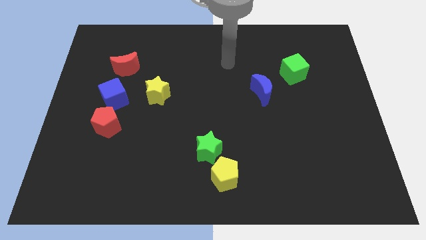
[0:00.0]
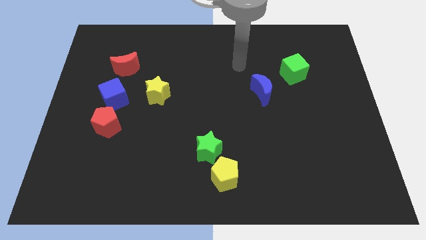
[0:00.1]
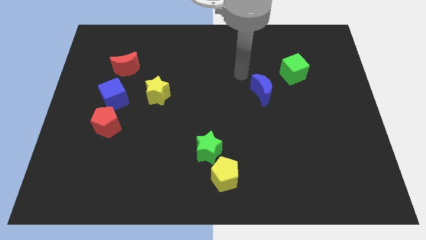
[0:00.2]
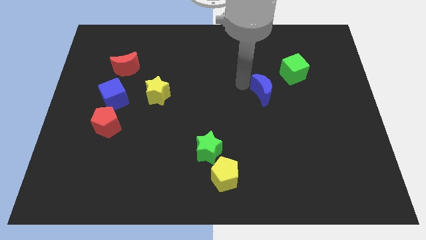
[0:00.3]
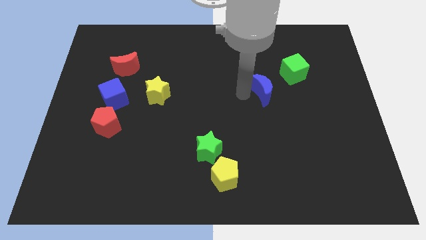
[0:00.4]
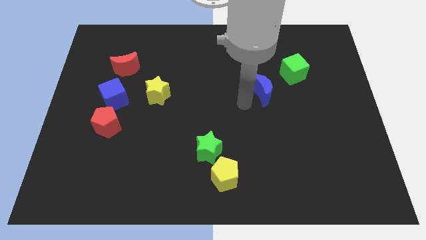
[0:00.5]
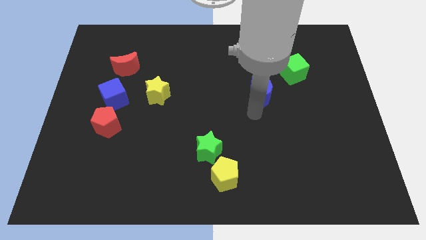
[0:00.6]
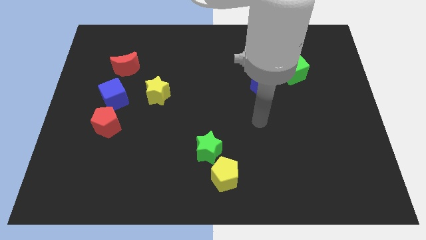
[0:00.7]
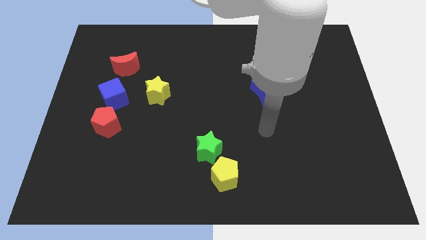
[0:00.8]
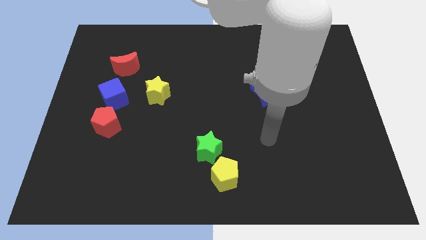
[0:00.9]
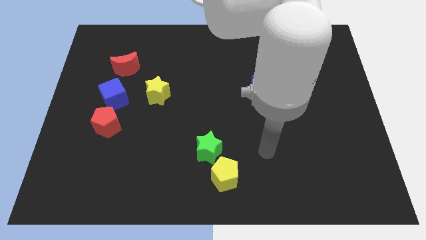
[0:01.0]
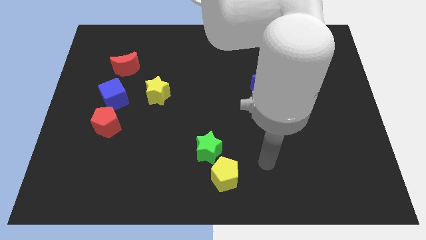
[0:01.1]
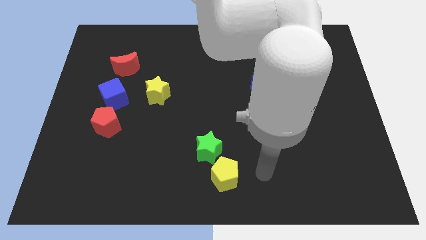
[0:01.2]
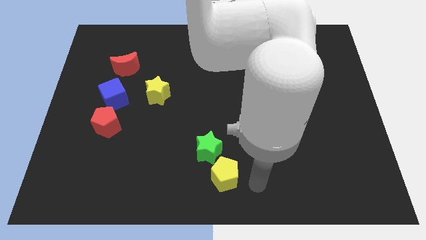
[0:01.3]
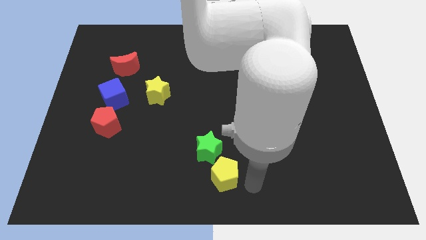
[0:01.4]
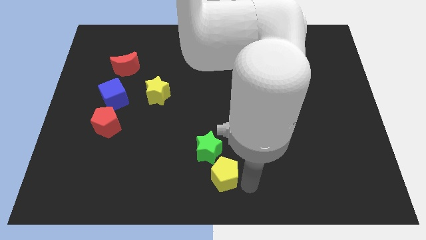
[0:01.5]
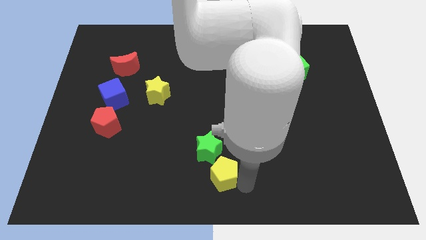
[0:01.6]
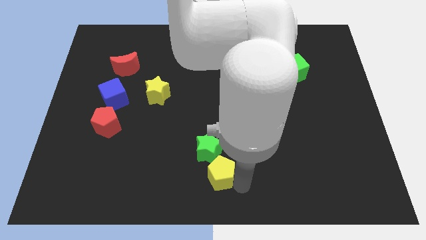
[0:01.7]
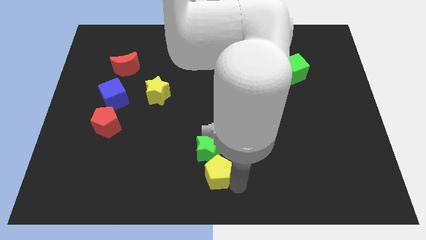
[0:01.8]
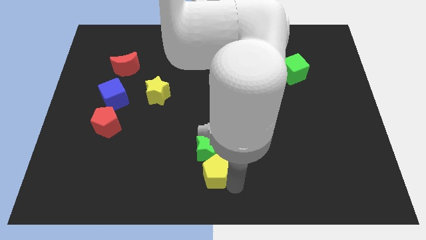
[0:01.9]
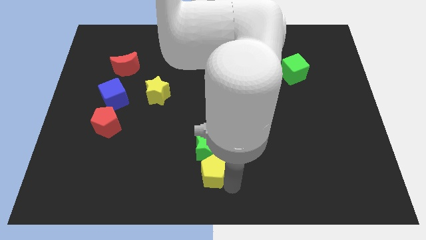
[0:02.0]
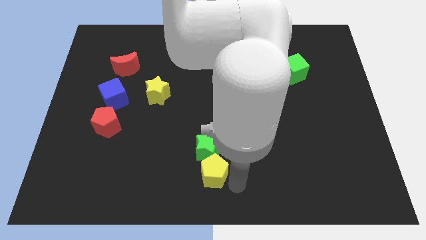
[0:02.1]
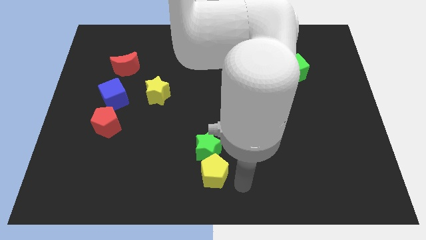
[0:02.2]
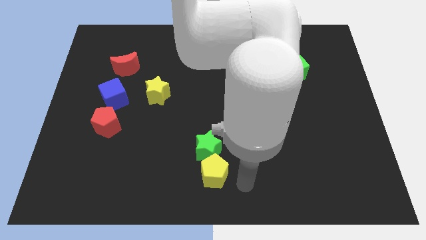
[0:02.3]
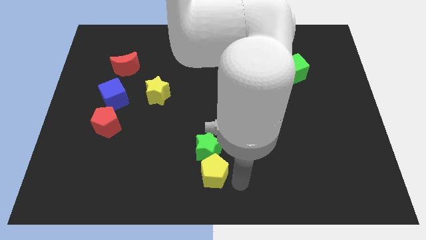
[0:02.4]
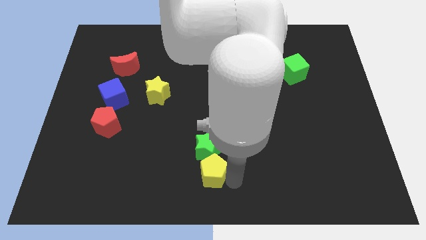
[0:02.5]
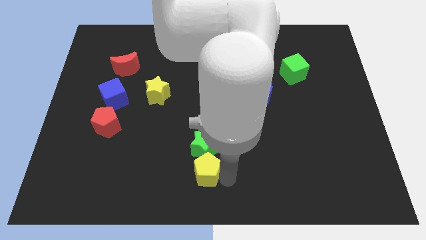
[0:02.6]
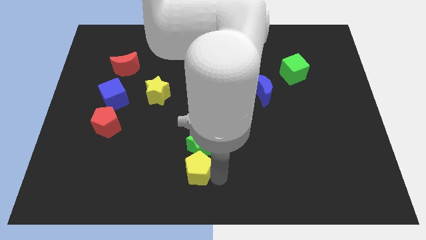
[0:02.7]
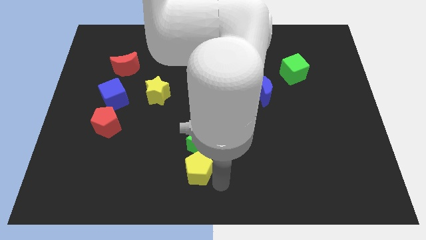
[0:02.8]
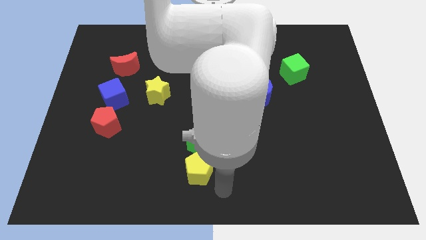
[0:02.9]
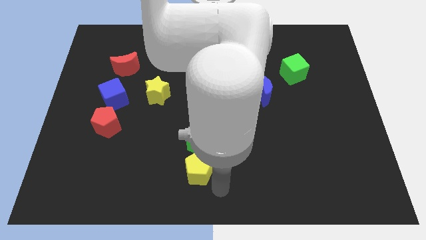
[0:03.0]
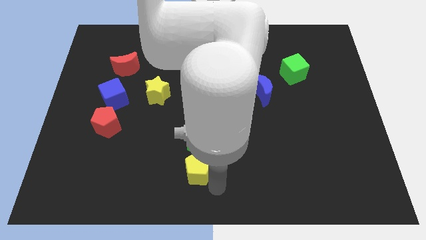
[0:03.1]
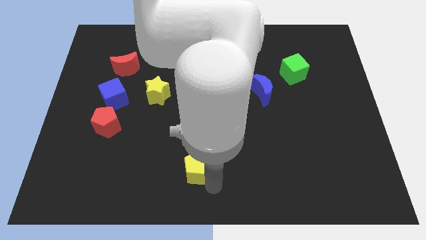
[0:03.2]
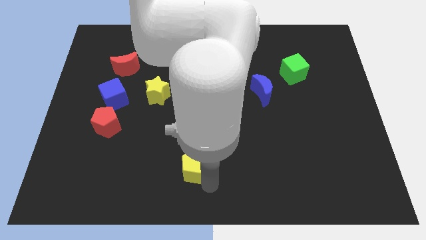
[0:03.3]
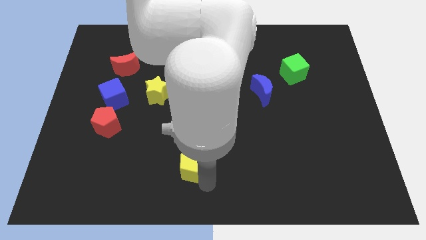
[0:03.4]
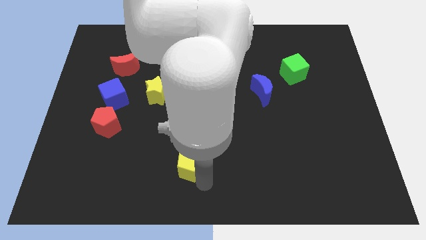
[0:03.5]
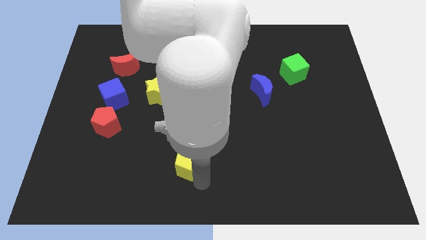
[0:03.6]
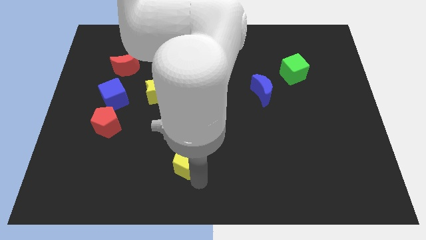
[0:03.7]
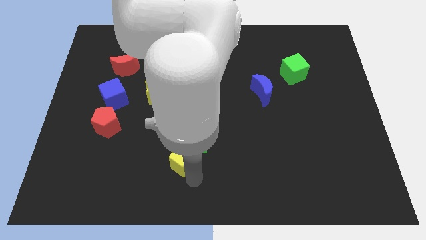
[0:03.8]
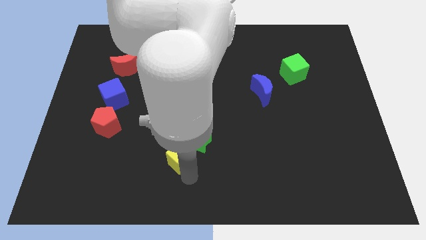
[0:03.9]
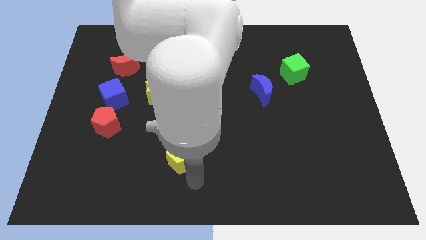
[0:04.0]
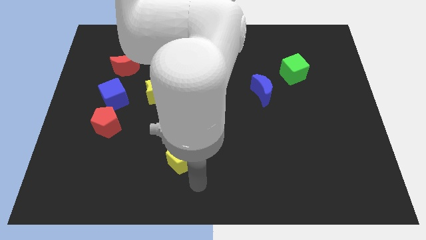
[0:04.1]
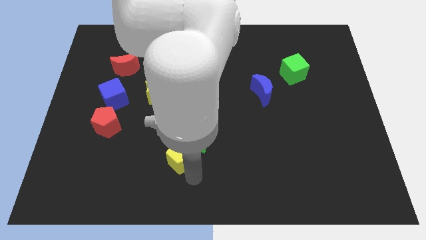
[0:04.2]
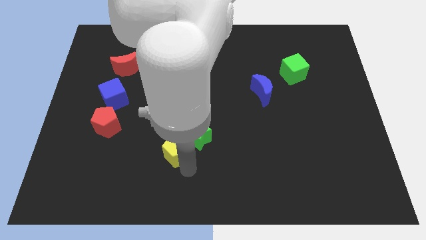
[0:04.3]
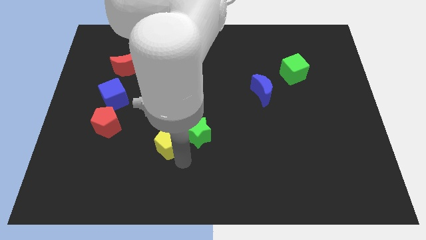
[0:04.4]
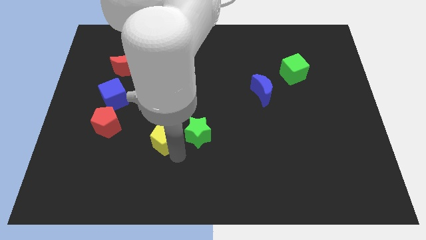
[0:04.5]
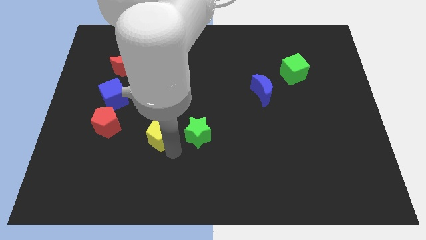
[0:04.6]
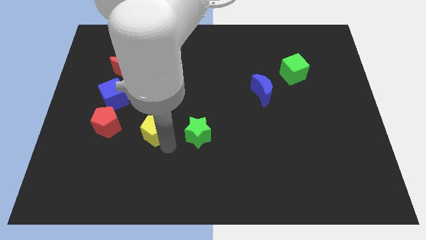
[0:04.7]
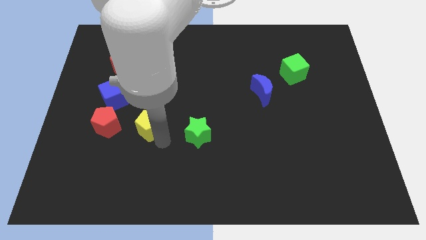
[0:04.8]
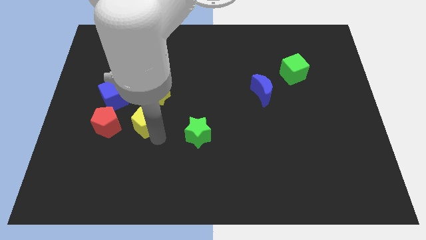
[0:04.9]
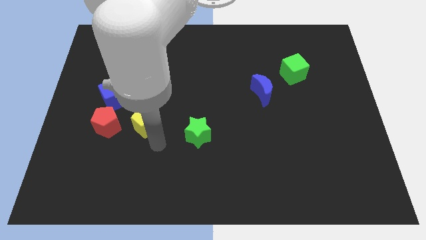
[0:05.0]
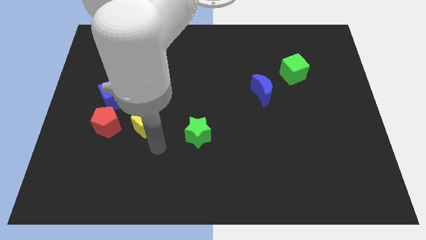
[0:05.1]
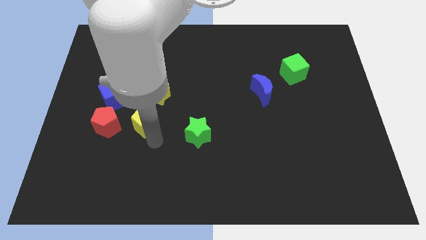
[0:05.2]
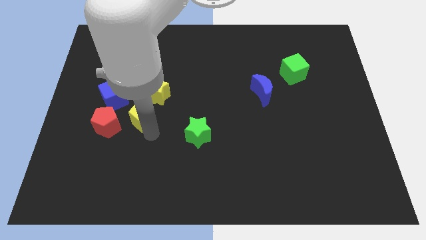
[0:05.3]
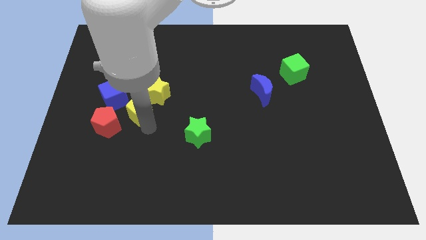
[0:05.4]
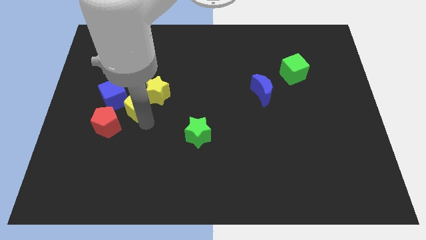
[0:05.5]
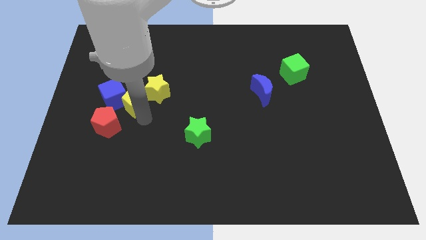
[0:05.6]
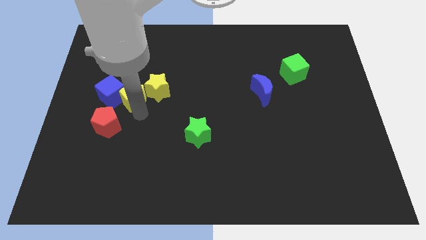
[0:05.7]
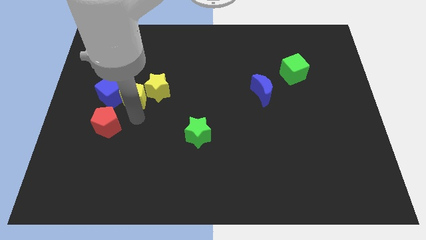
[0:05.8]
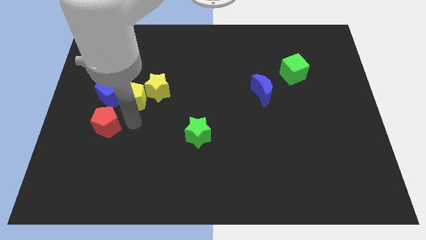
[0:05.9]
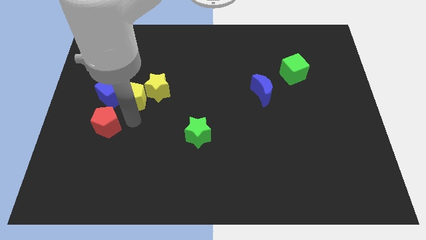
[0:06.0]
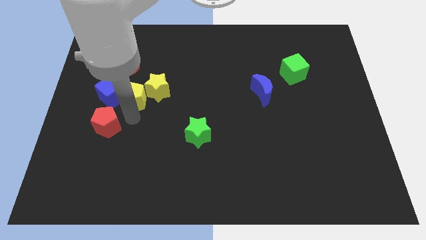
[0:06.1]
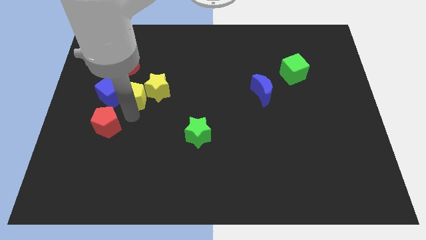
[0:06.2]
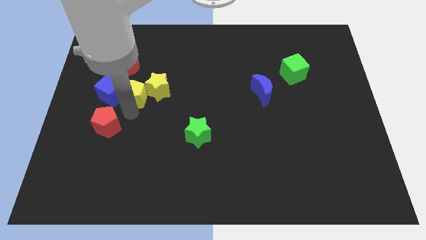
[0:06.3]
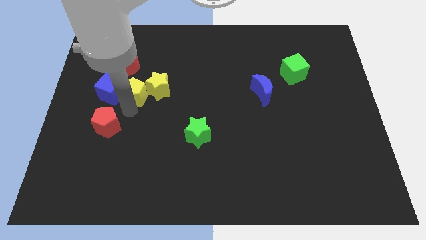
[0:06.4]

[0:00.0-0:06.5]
slide the yellow pentagon diagonally up and to the right of the blue cube
